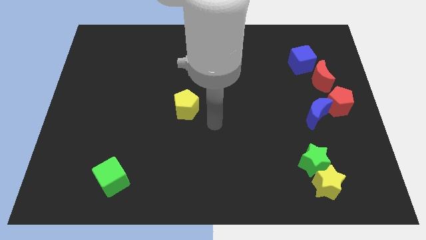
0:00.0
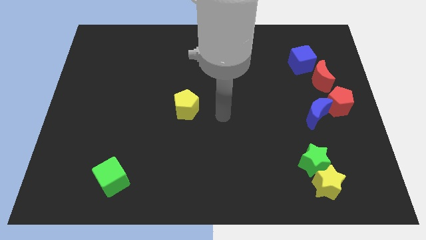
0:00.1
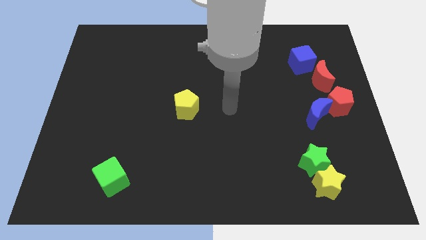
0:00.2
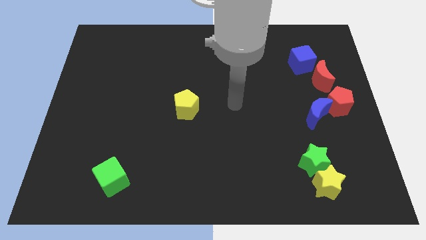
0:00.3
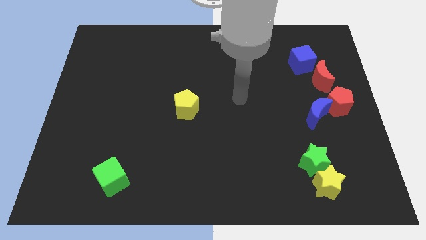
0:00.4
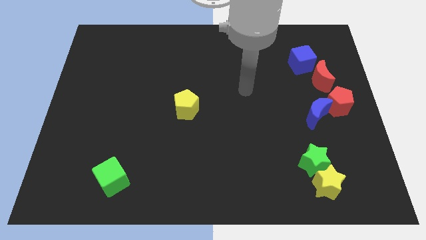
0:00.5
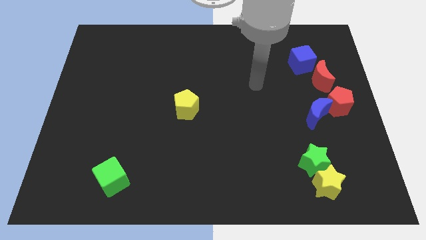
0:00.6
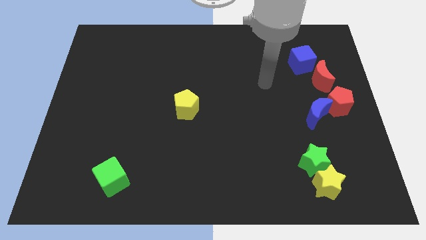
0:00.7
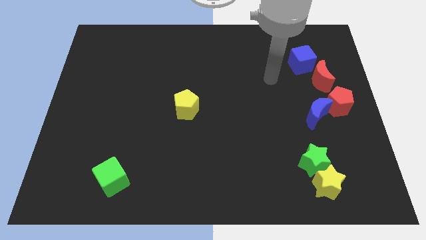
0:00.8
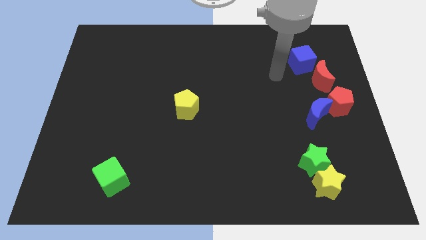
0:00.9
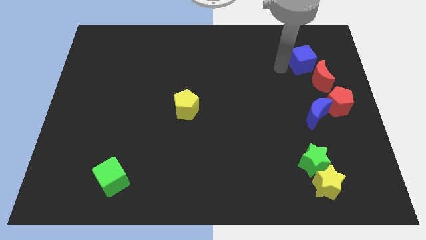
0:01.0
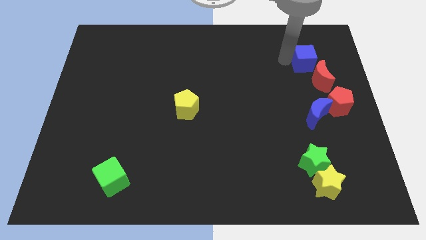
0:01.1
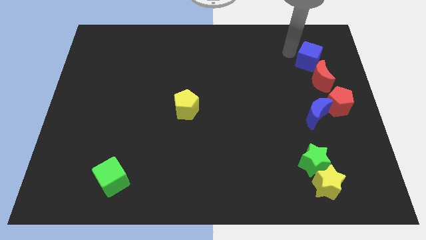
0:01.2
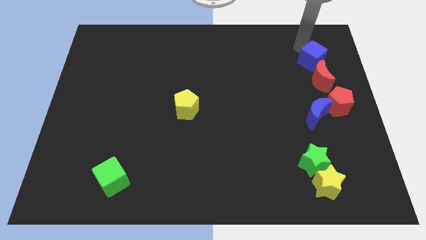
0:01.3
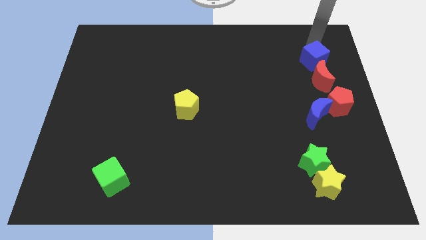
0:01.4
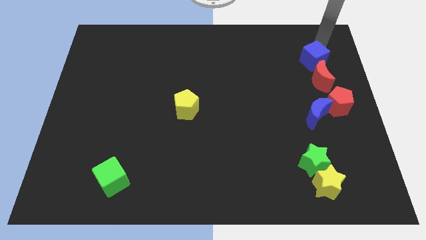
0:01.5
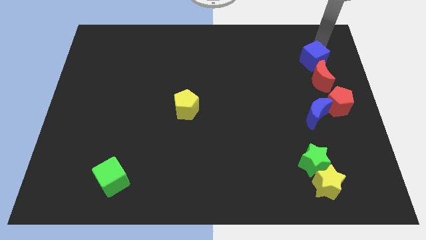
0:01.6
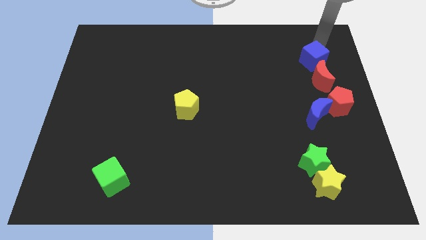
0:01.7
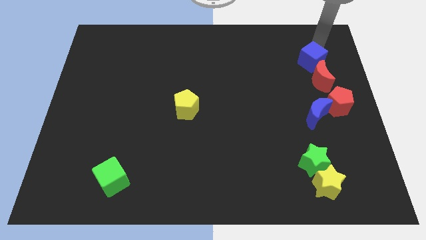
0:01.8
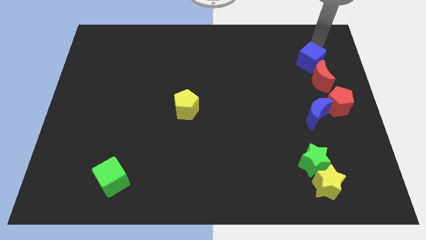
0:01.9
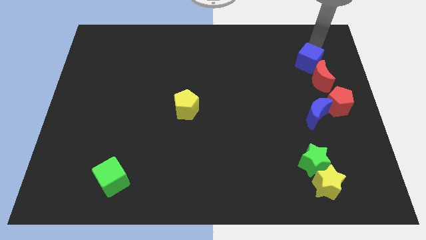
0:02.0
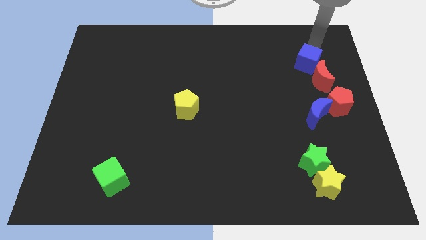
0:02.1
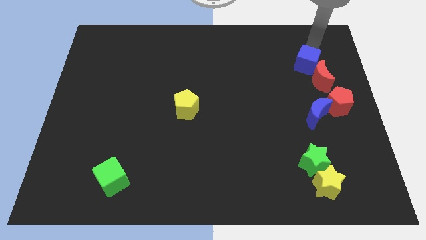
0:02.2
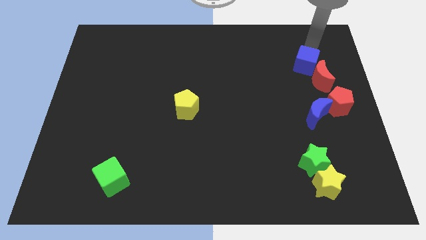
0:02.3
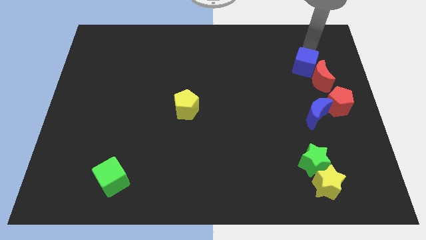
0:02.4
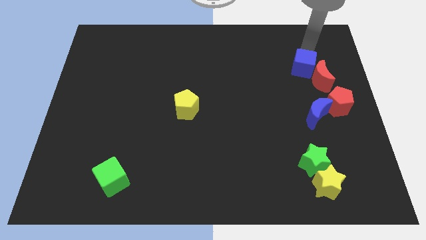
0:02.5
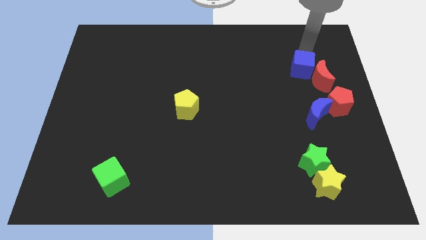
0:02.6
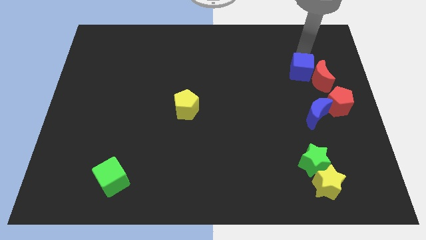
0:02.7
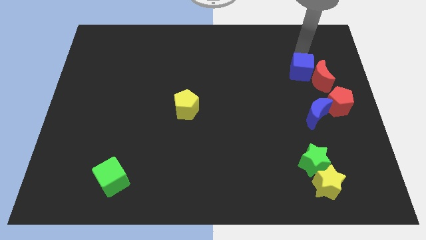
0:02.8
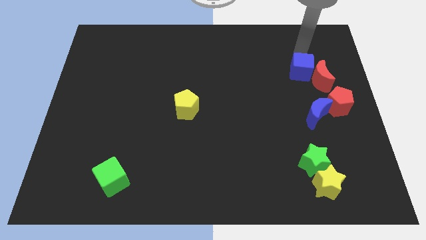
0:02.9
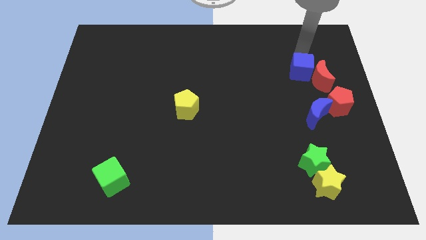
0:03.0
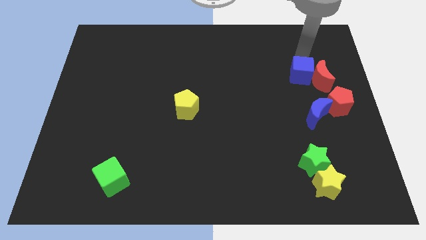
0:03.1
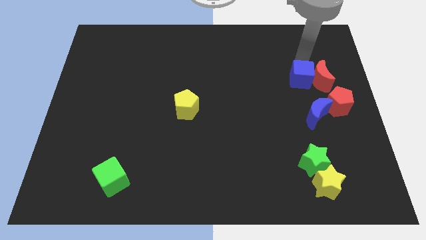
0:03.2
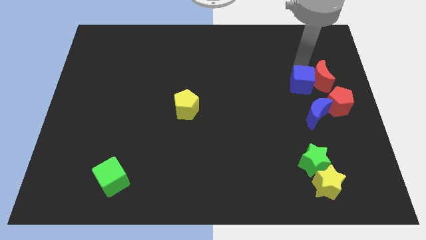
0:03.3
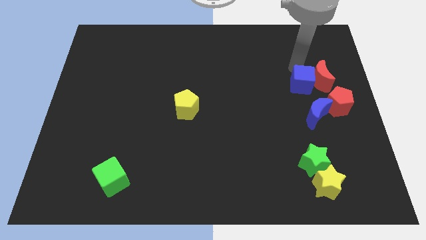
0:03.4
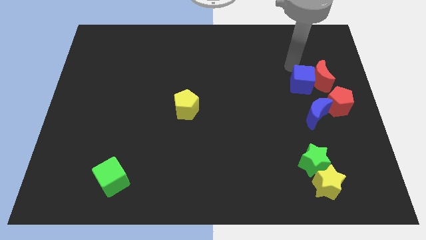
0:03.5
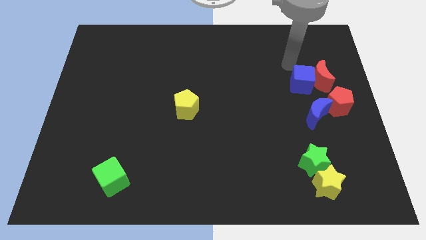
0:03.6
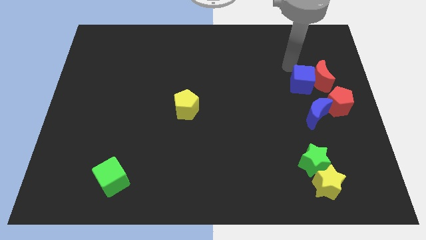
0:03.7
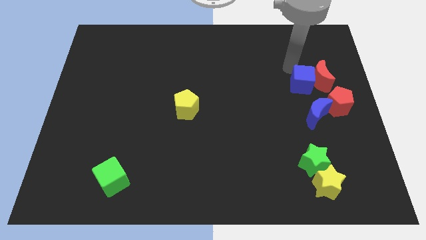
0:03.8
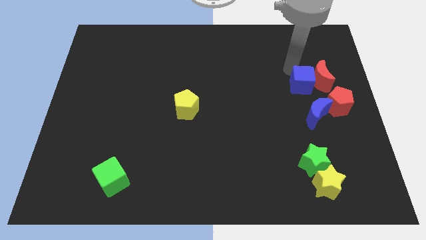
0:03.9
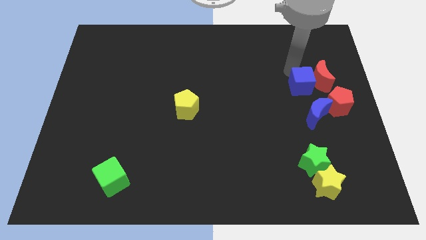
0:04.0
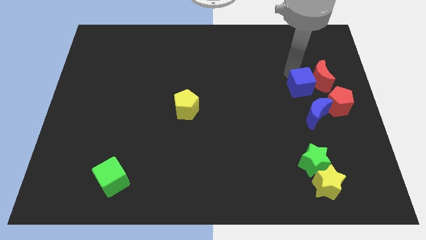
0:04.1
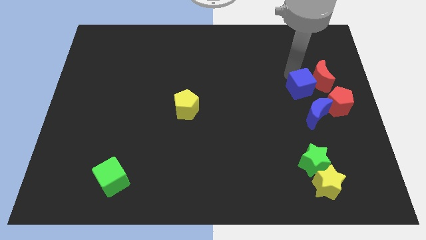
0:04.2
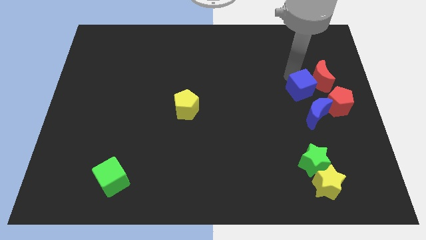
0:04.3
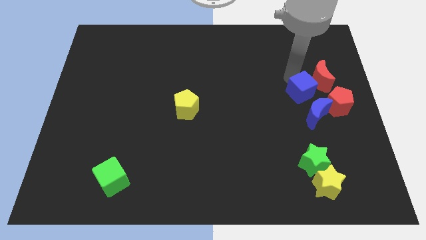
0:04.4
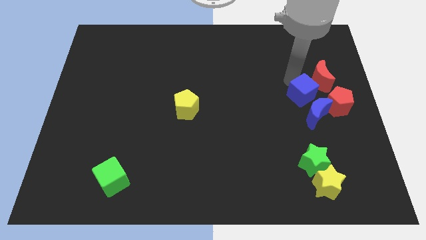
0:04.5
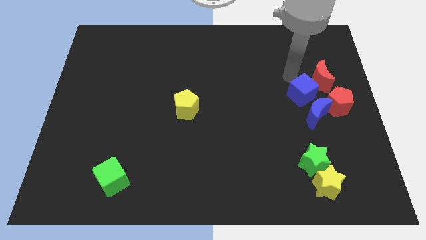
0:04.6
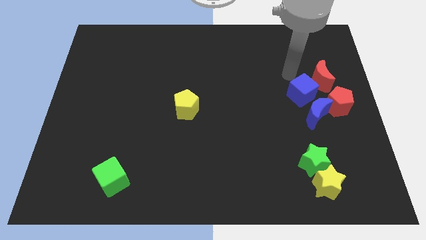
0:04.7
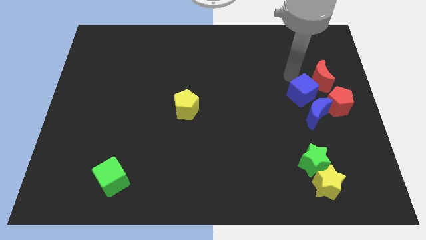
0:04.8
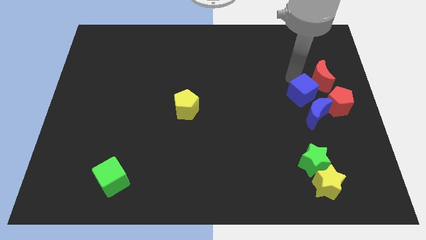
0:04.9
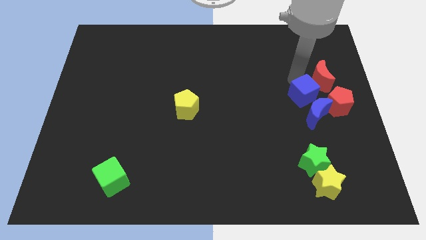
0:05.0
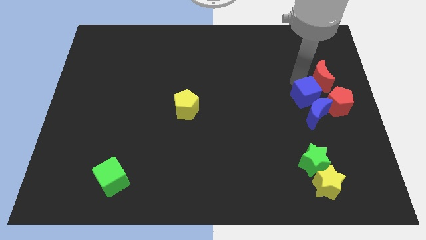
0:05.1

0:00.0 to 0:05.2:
move the blue cube towards the blue moon

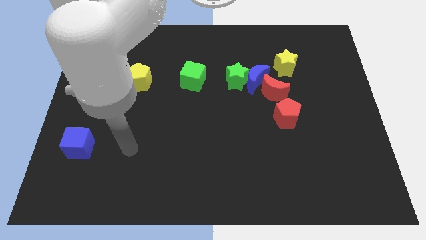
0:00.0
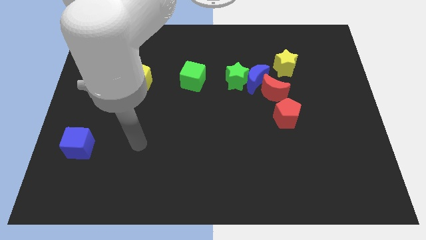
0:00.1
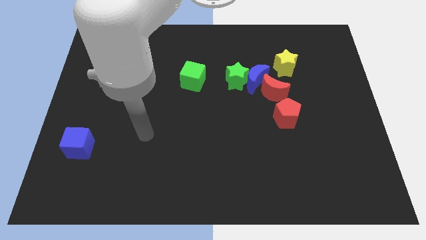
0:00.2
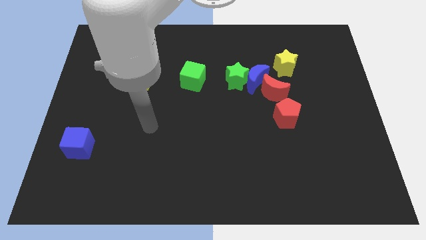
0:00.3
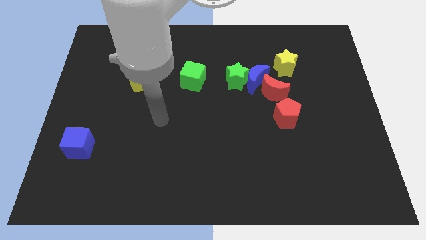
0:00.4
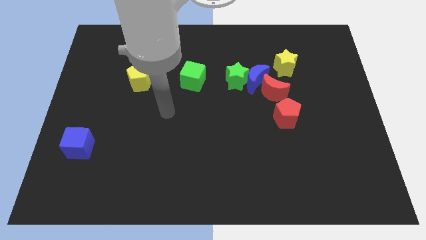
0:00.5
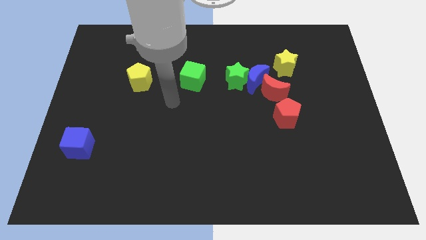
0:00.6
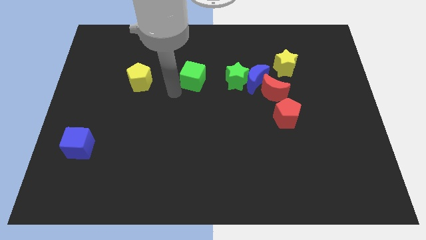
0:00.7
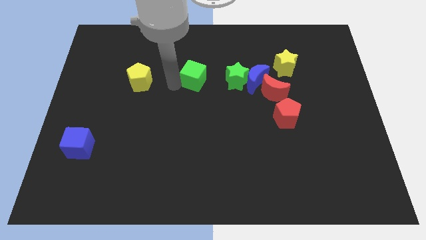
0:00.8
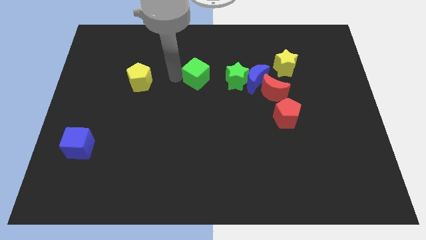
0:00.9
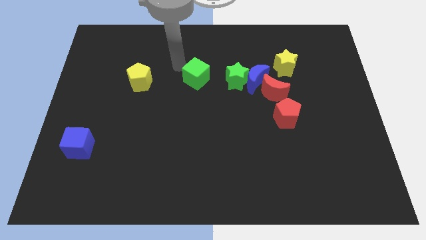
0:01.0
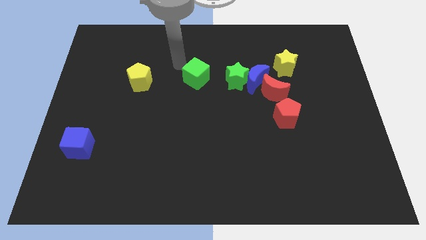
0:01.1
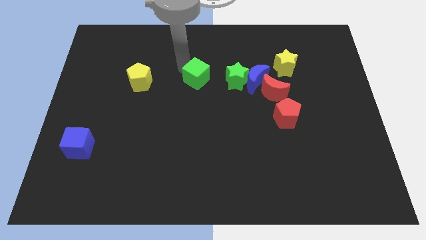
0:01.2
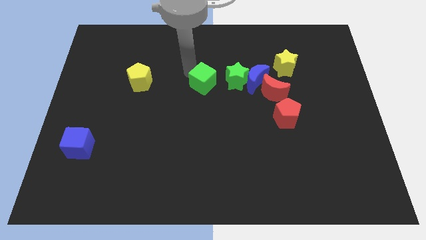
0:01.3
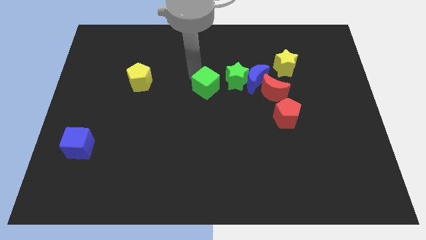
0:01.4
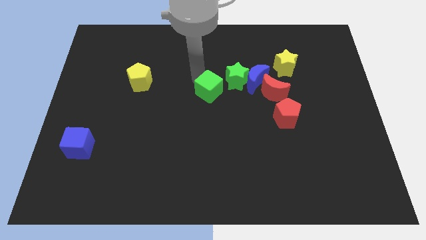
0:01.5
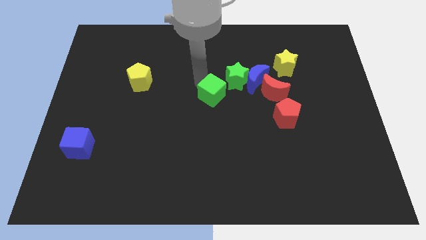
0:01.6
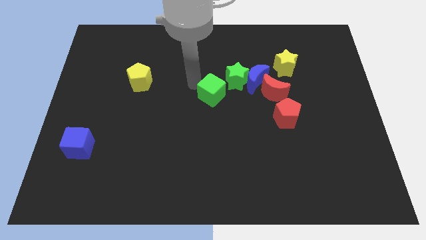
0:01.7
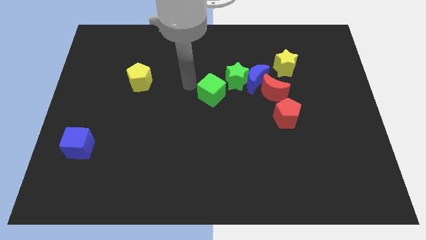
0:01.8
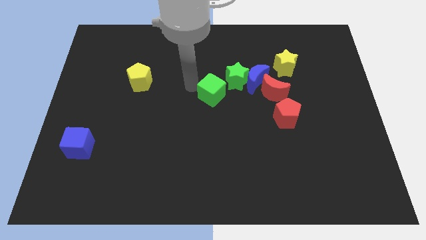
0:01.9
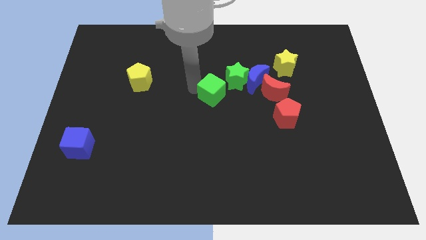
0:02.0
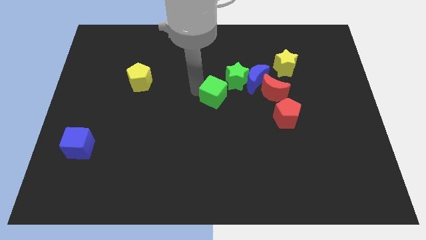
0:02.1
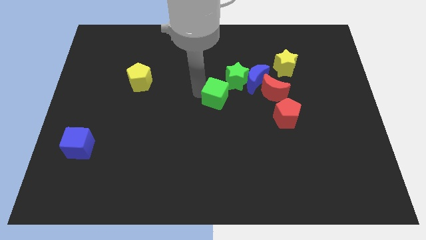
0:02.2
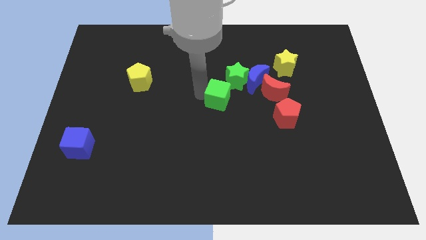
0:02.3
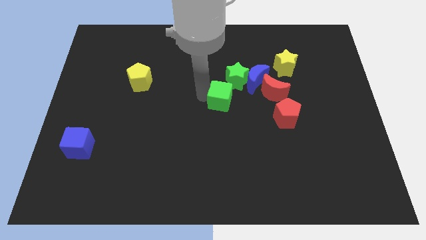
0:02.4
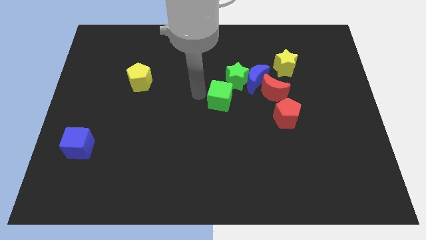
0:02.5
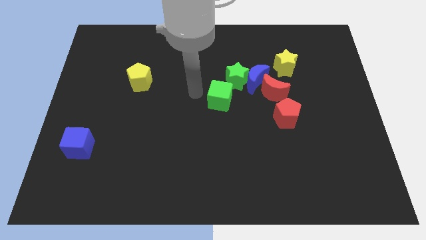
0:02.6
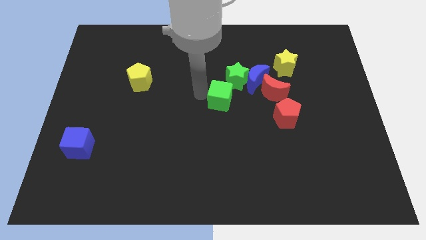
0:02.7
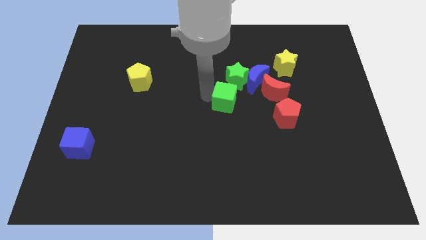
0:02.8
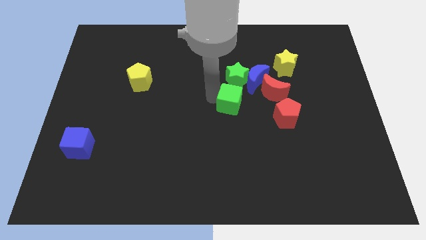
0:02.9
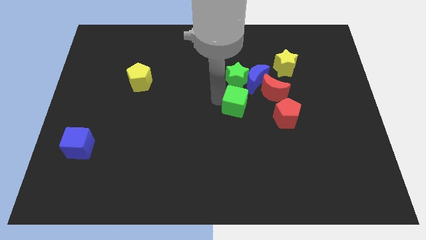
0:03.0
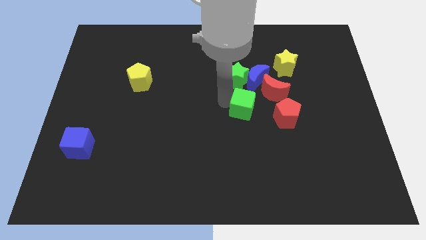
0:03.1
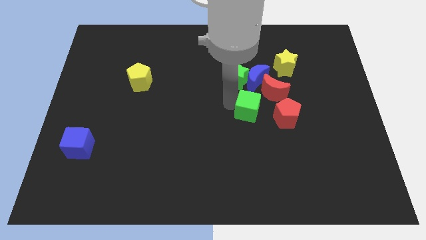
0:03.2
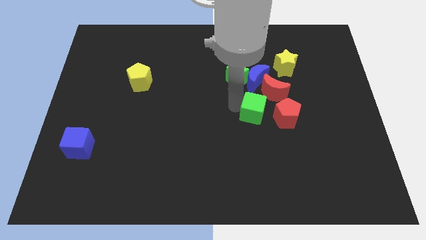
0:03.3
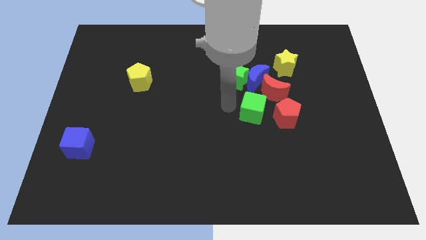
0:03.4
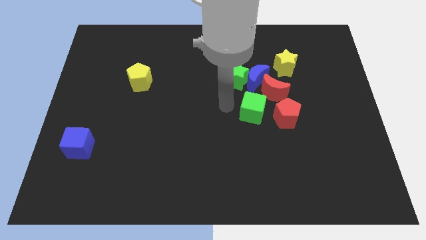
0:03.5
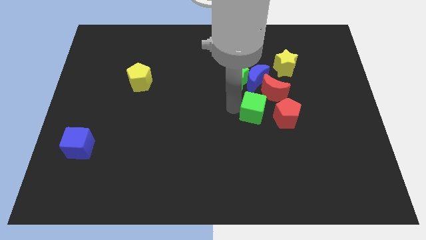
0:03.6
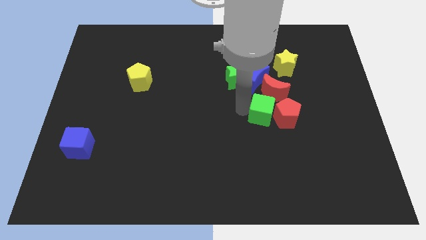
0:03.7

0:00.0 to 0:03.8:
slide the green cube next to the red pentagon
